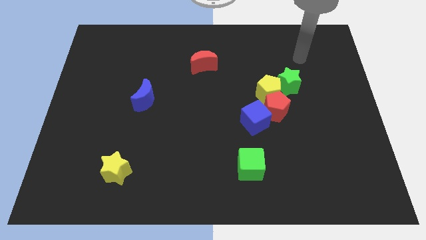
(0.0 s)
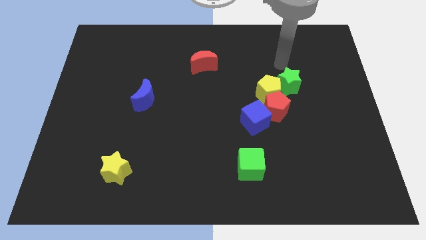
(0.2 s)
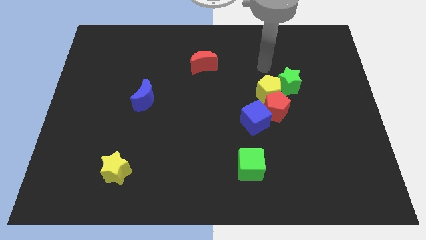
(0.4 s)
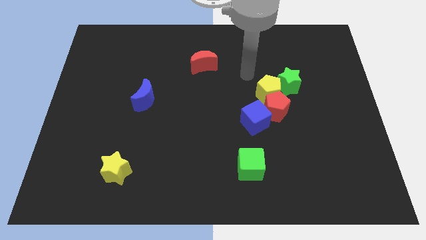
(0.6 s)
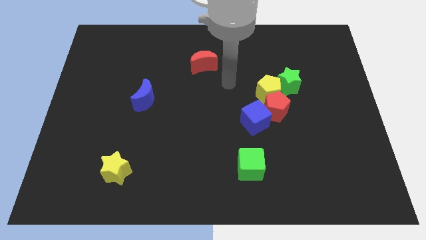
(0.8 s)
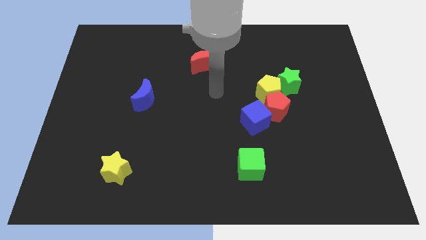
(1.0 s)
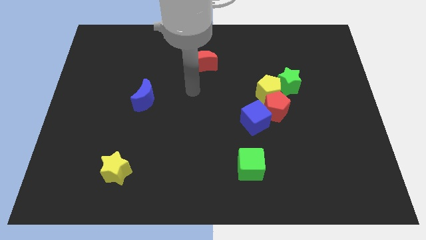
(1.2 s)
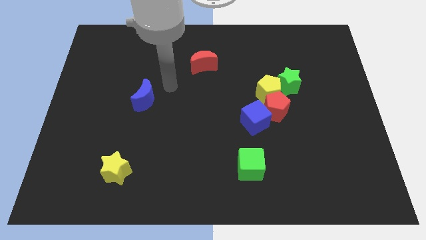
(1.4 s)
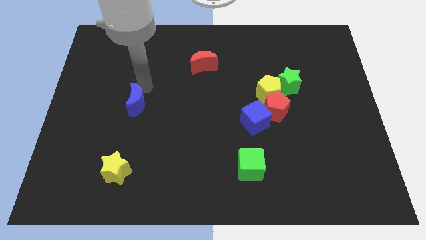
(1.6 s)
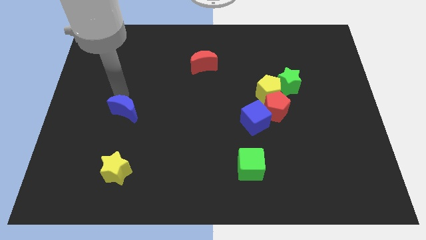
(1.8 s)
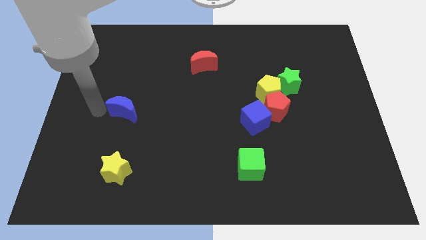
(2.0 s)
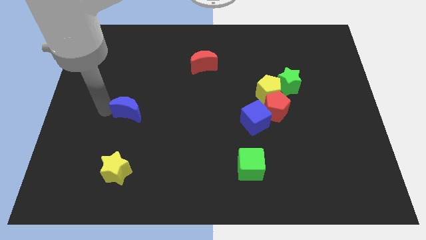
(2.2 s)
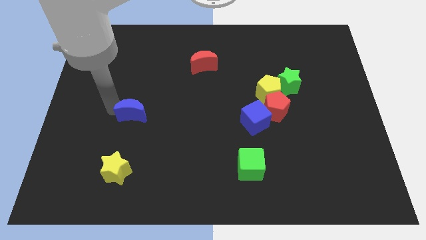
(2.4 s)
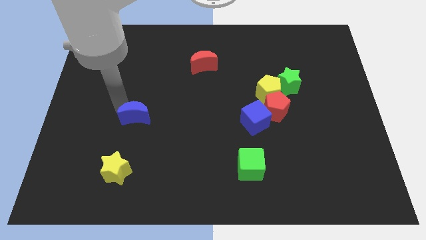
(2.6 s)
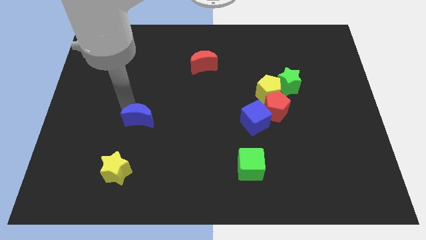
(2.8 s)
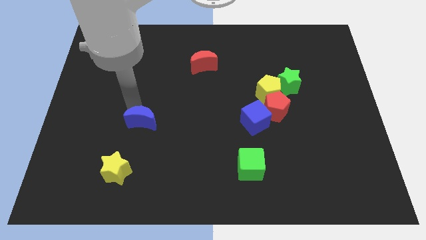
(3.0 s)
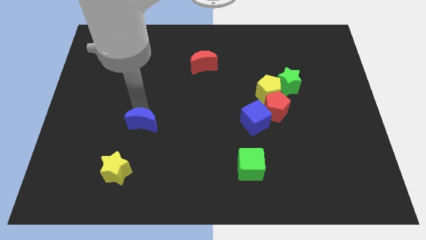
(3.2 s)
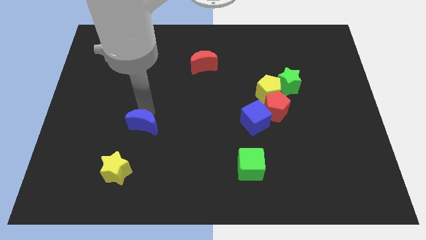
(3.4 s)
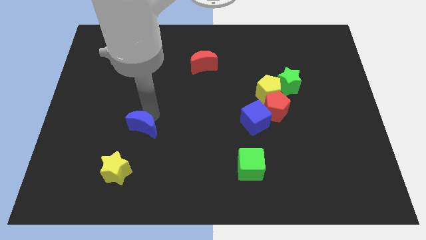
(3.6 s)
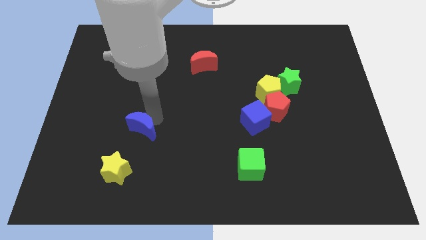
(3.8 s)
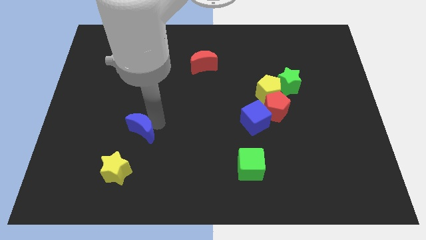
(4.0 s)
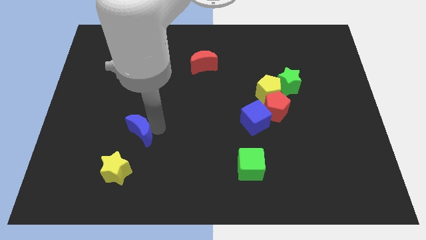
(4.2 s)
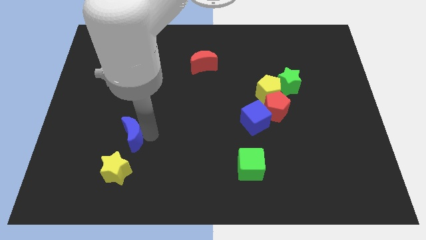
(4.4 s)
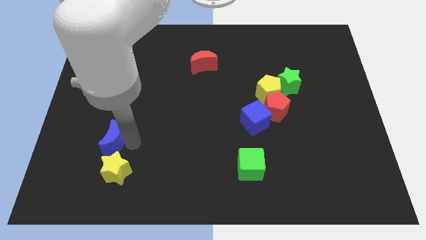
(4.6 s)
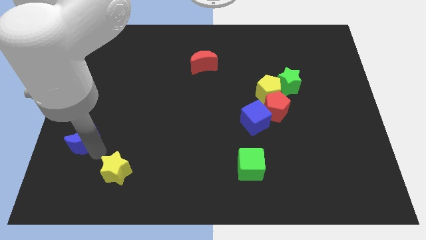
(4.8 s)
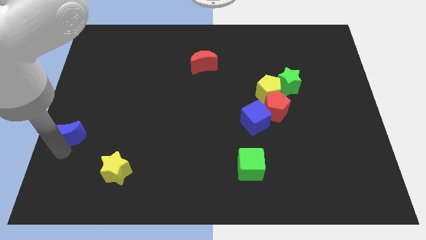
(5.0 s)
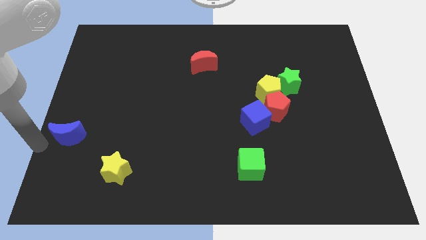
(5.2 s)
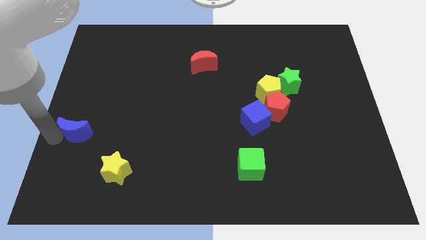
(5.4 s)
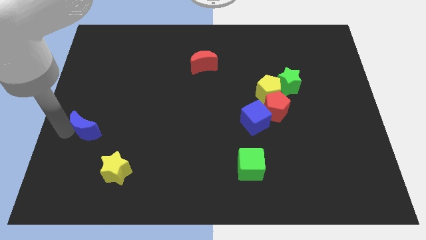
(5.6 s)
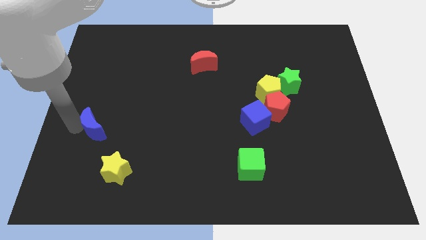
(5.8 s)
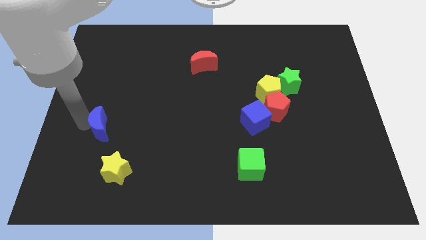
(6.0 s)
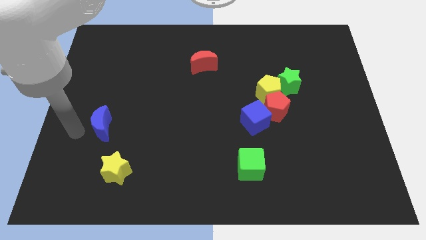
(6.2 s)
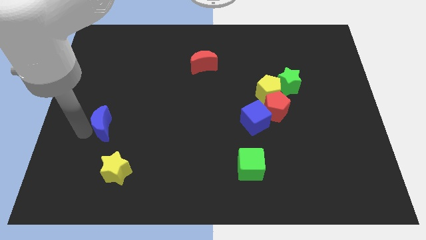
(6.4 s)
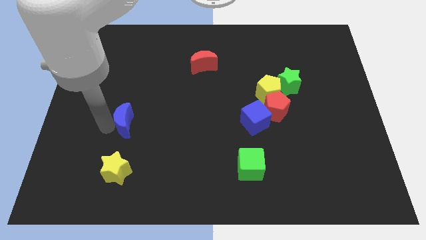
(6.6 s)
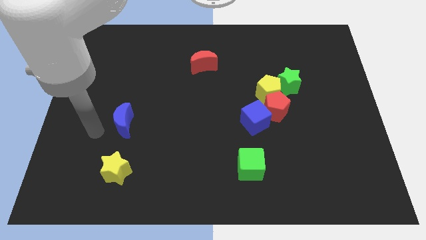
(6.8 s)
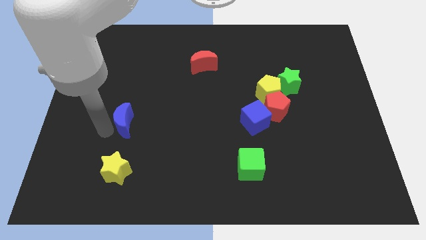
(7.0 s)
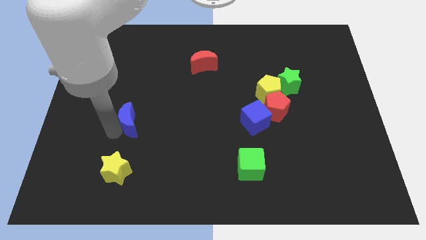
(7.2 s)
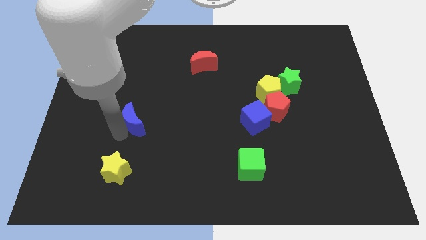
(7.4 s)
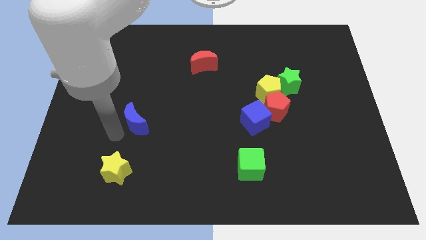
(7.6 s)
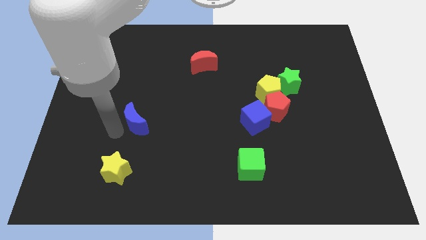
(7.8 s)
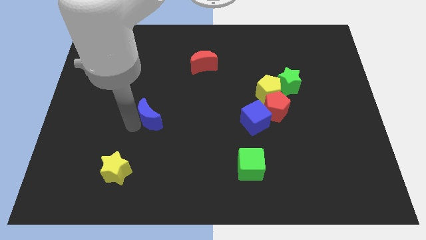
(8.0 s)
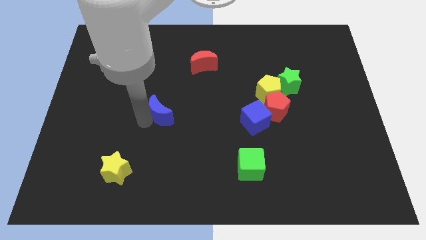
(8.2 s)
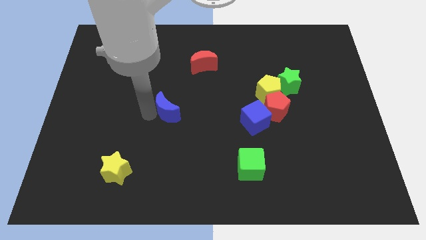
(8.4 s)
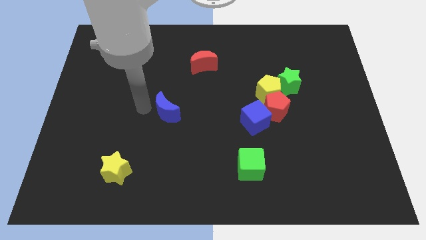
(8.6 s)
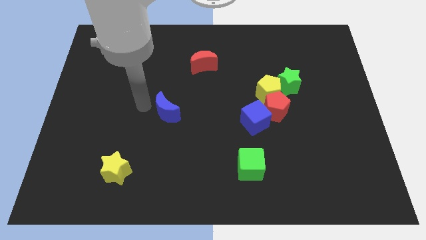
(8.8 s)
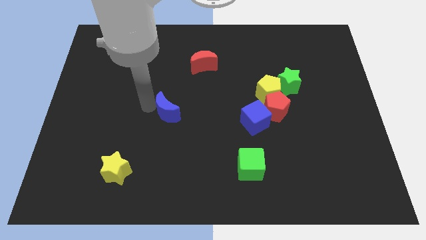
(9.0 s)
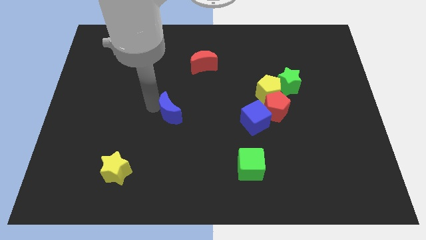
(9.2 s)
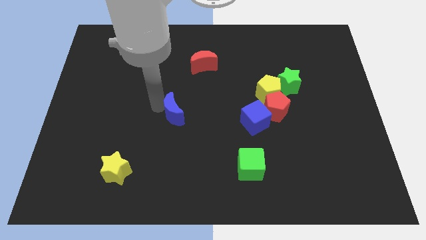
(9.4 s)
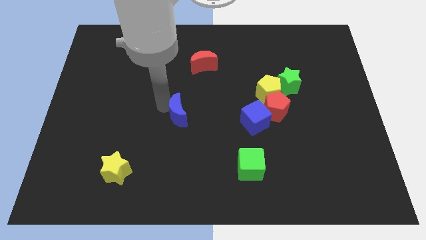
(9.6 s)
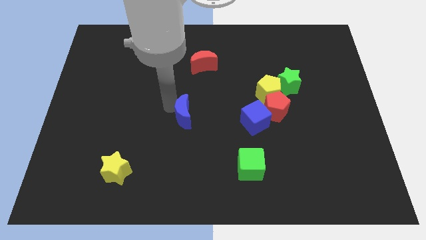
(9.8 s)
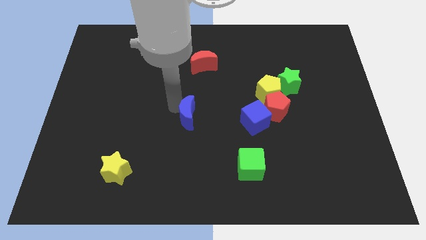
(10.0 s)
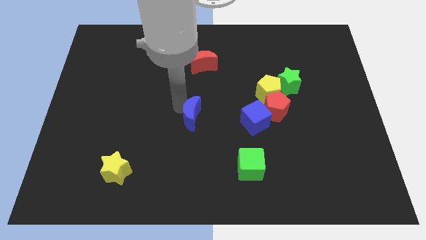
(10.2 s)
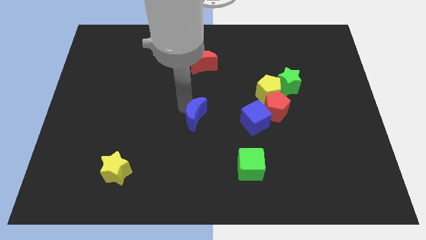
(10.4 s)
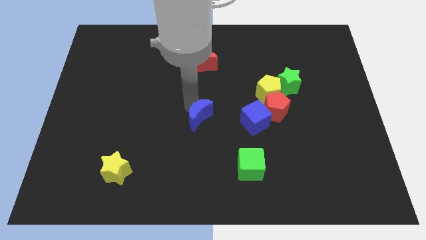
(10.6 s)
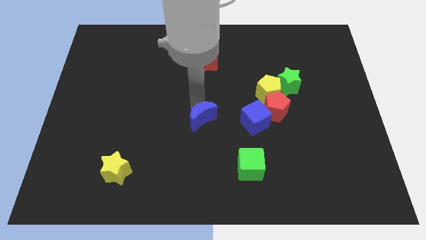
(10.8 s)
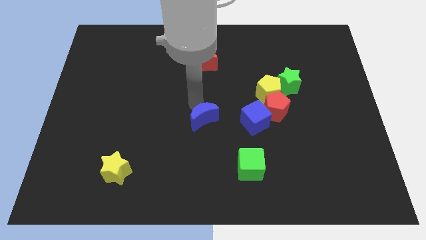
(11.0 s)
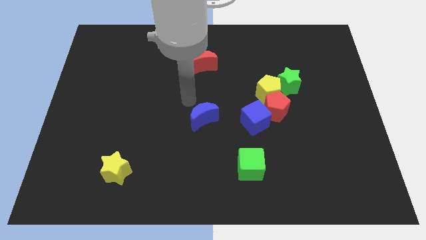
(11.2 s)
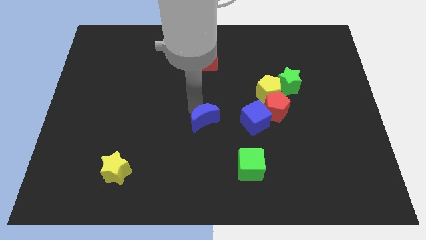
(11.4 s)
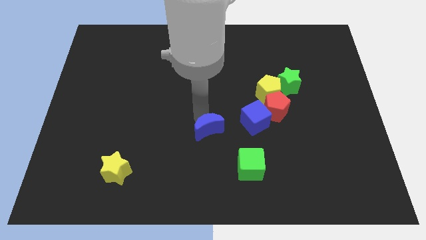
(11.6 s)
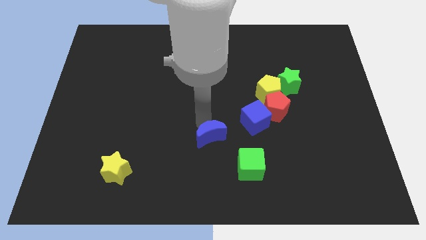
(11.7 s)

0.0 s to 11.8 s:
put the blue moon to the top left side of the green cube
